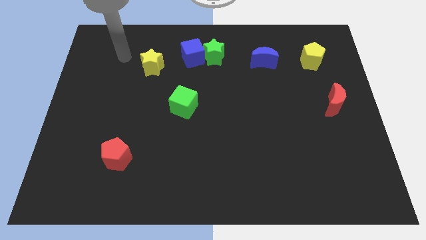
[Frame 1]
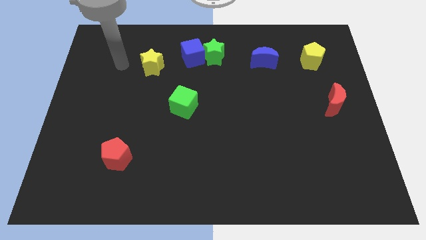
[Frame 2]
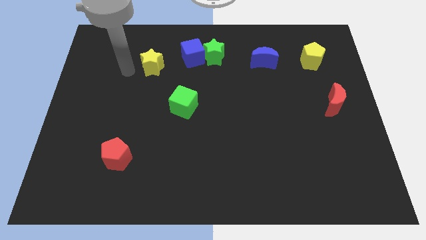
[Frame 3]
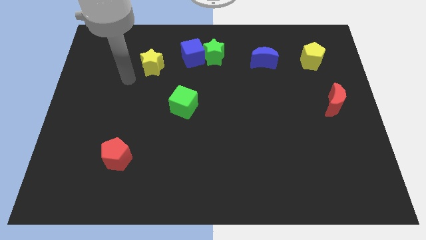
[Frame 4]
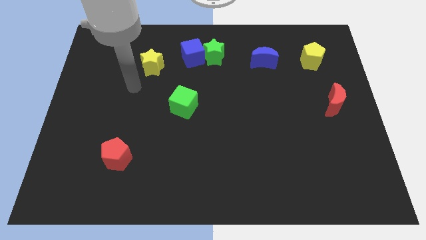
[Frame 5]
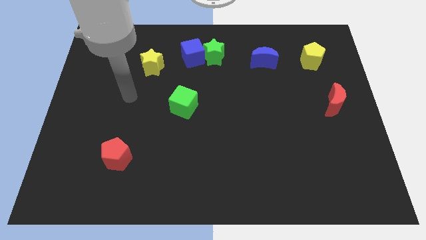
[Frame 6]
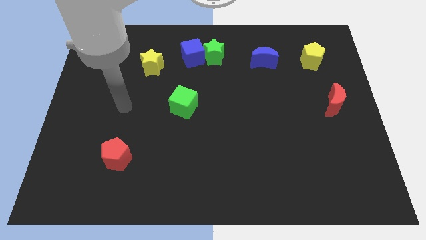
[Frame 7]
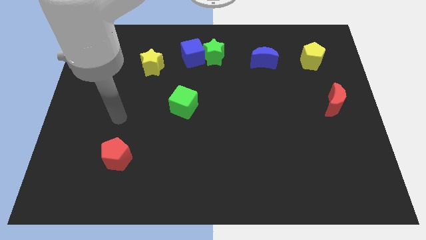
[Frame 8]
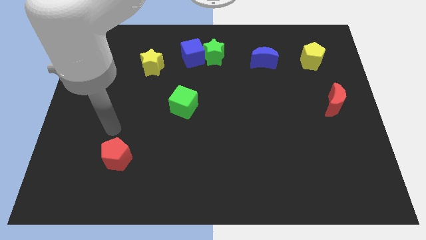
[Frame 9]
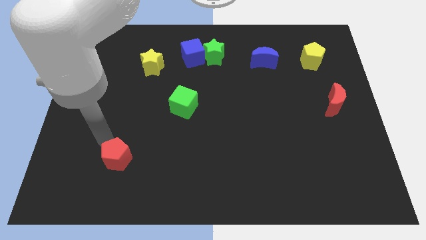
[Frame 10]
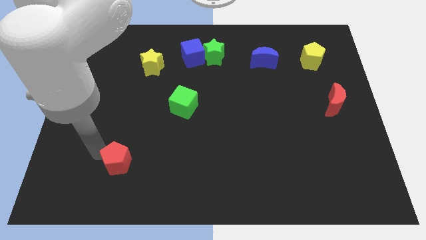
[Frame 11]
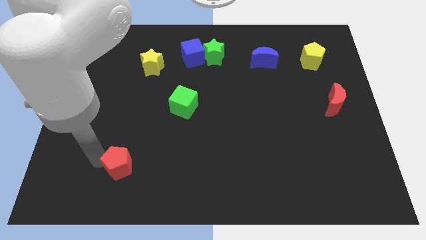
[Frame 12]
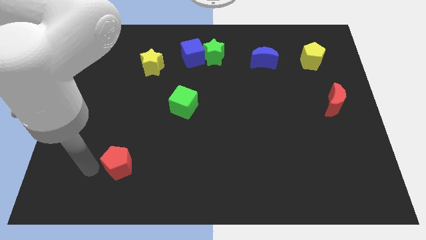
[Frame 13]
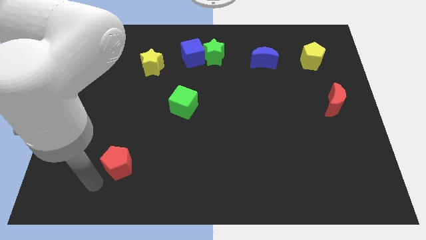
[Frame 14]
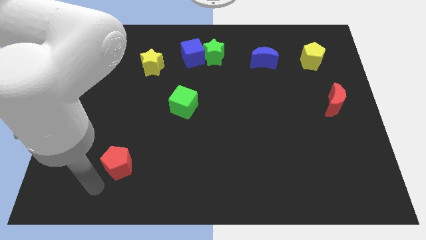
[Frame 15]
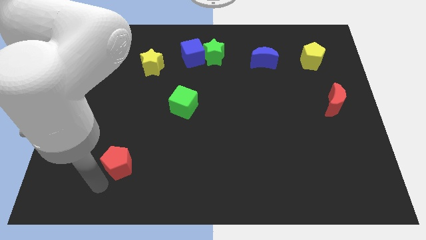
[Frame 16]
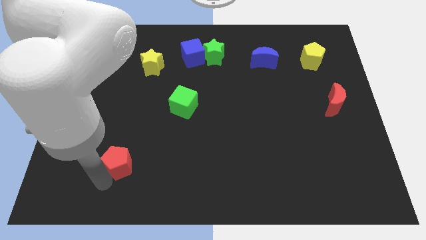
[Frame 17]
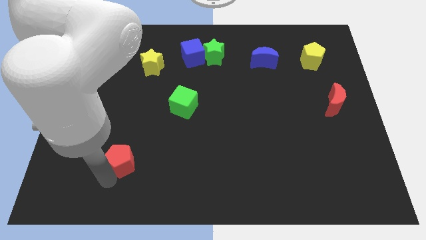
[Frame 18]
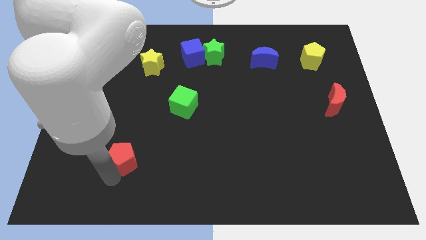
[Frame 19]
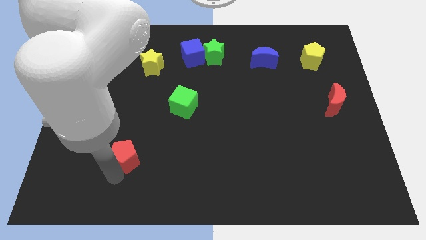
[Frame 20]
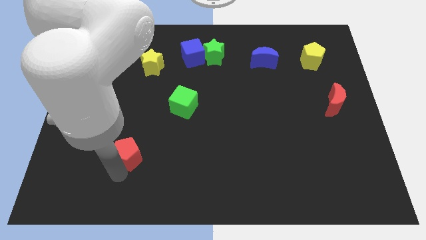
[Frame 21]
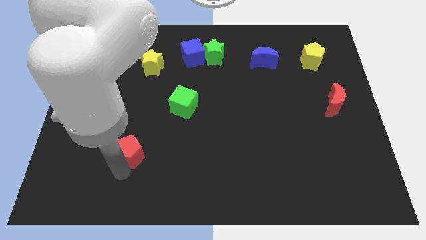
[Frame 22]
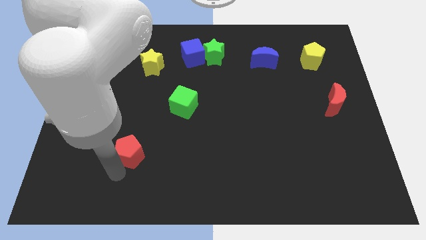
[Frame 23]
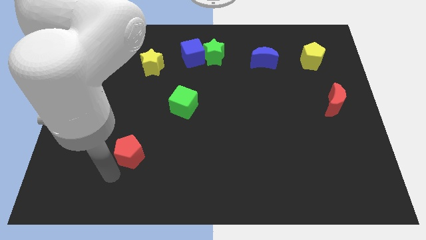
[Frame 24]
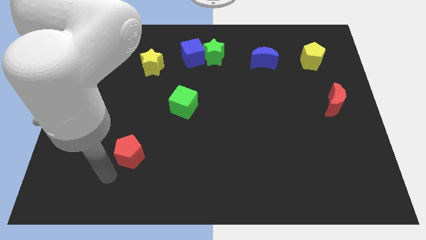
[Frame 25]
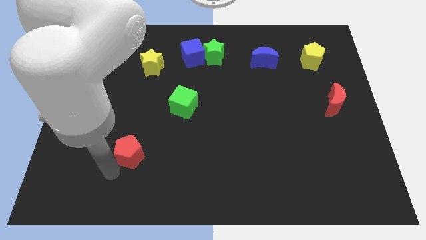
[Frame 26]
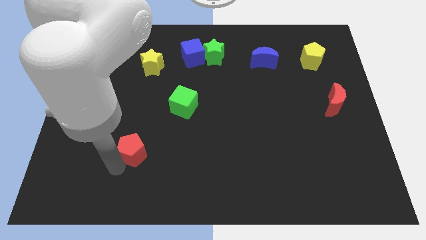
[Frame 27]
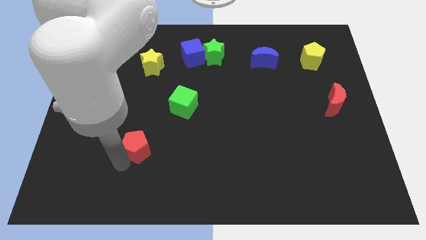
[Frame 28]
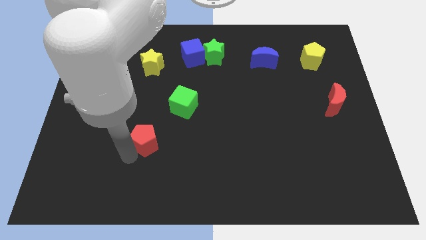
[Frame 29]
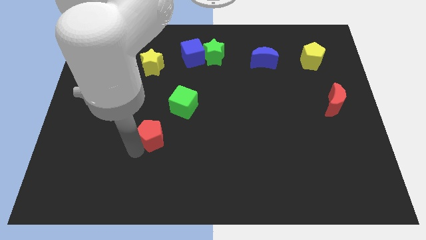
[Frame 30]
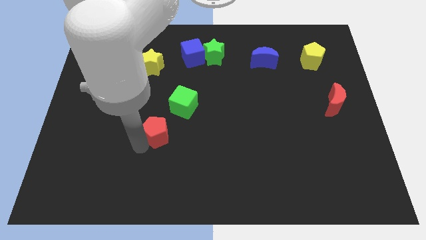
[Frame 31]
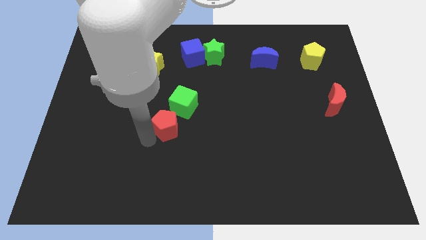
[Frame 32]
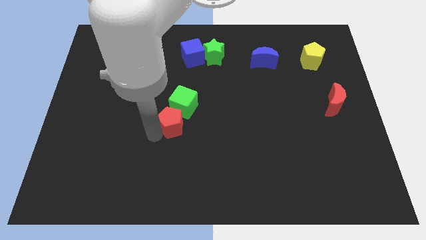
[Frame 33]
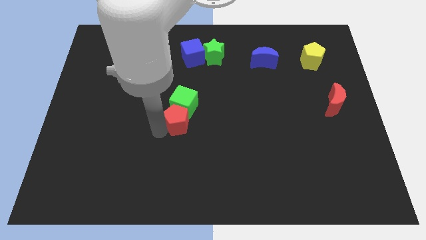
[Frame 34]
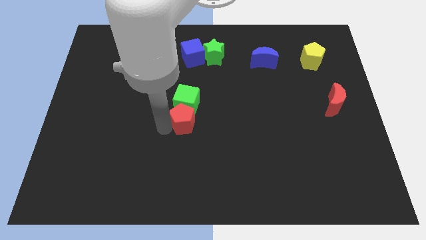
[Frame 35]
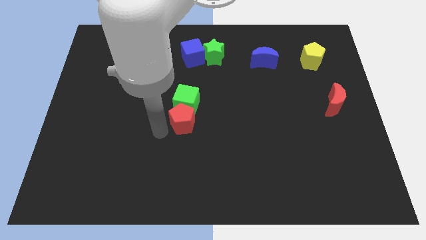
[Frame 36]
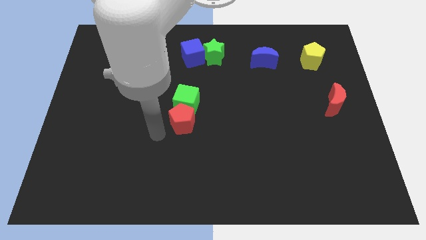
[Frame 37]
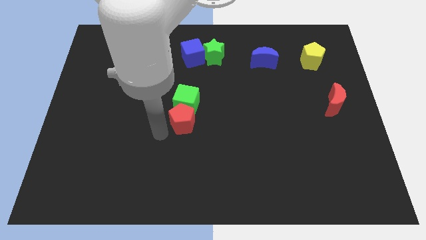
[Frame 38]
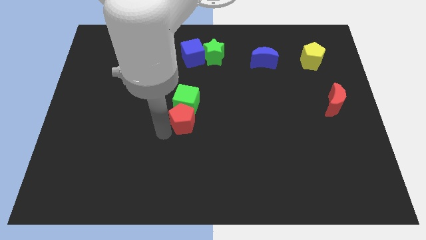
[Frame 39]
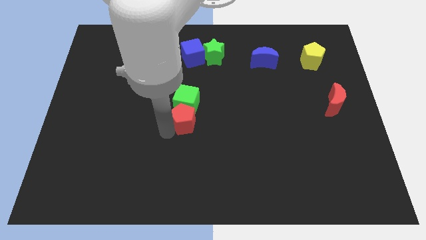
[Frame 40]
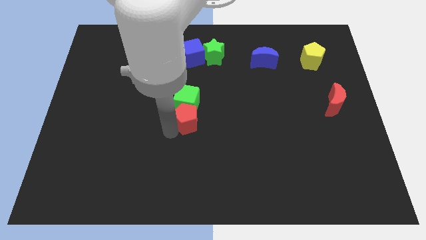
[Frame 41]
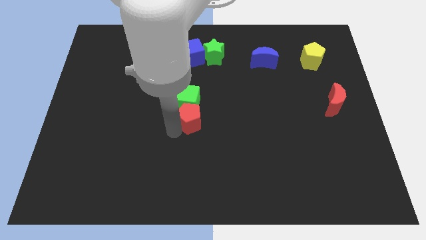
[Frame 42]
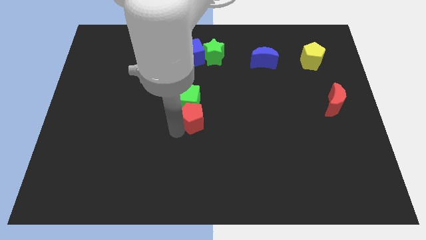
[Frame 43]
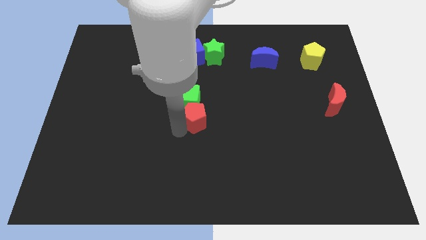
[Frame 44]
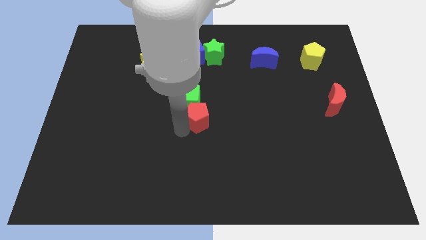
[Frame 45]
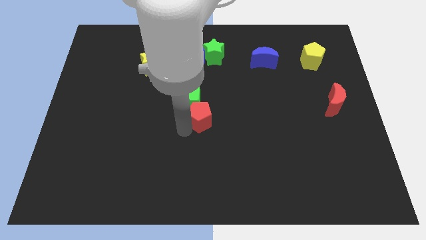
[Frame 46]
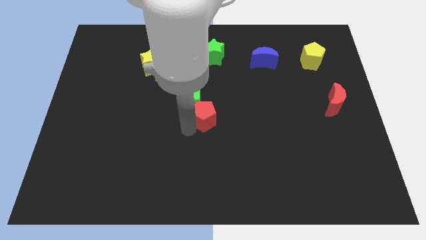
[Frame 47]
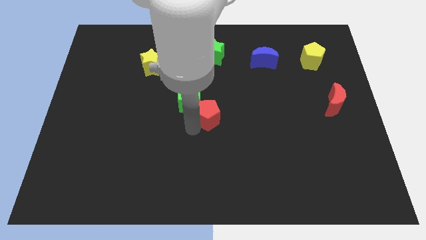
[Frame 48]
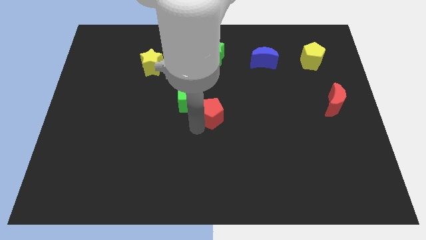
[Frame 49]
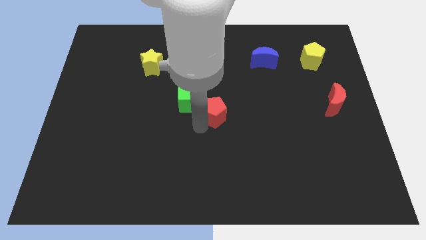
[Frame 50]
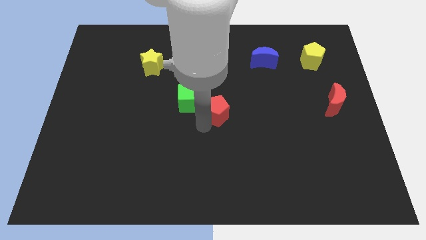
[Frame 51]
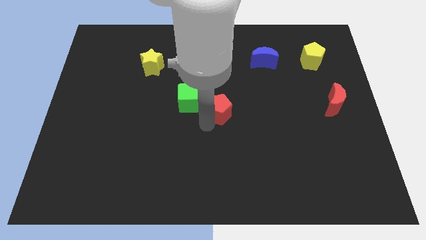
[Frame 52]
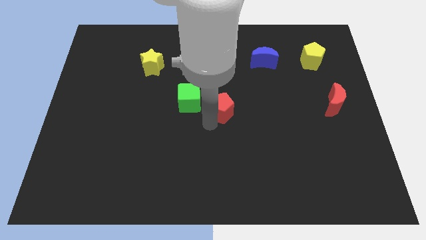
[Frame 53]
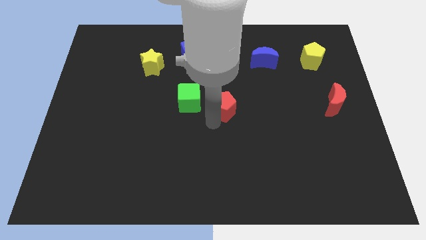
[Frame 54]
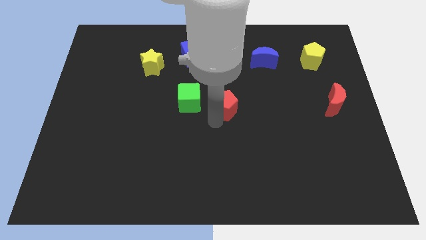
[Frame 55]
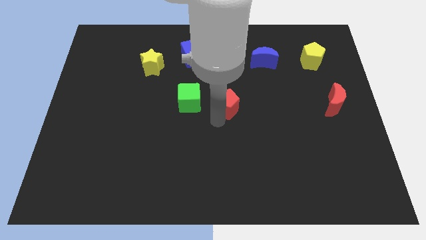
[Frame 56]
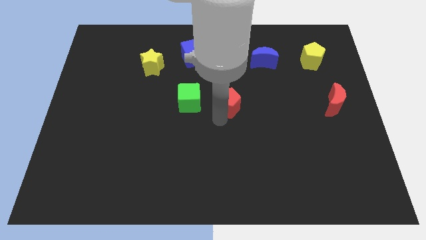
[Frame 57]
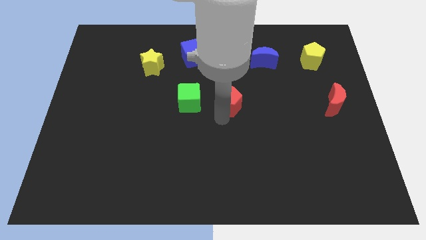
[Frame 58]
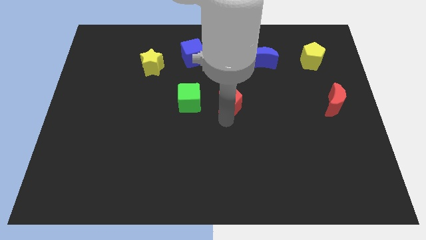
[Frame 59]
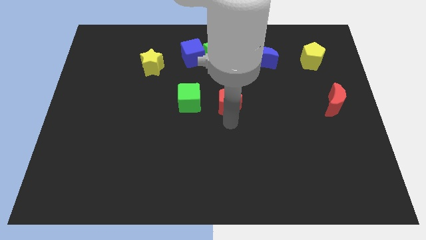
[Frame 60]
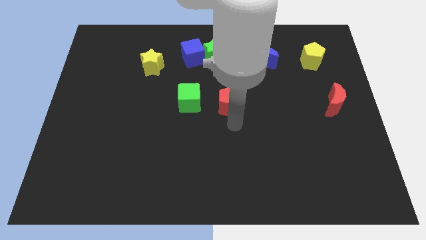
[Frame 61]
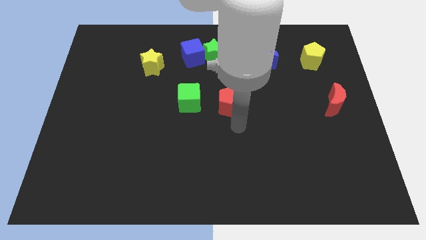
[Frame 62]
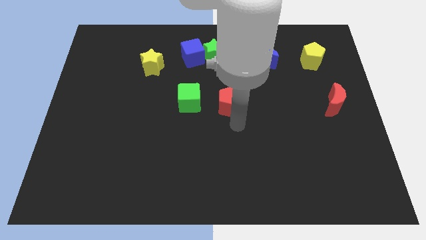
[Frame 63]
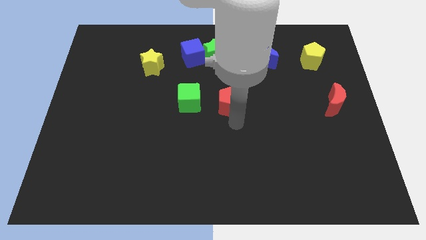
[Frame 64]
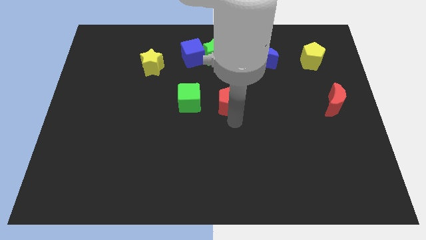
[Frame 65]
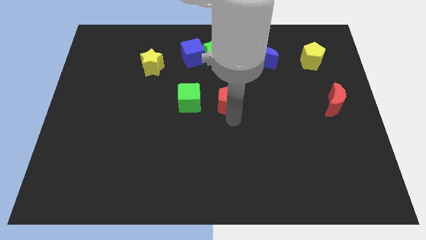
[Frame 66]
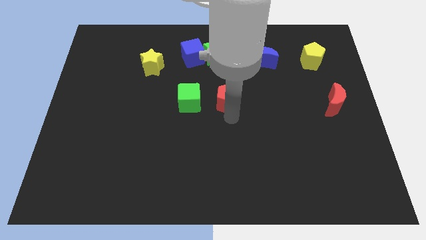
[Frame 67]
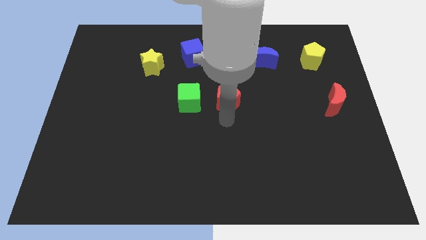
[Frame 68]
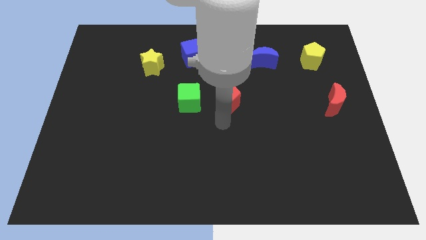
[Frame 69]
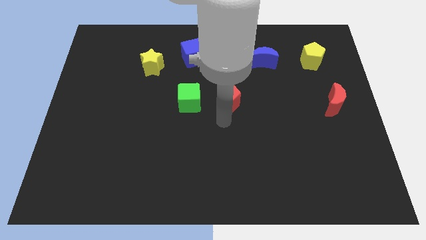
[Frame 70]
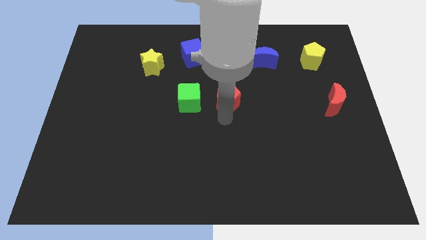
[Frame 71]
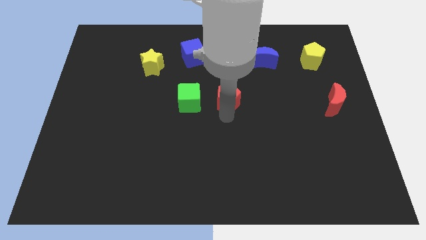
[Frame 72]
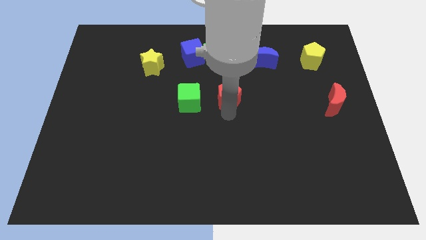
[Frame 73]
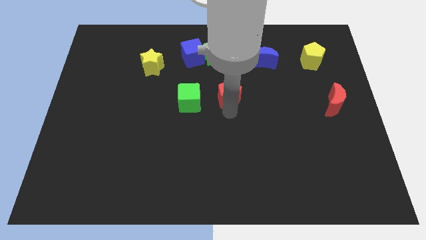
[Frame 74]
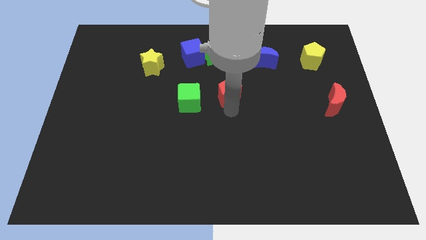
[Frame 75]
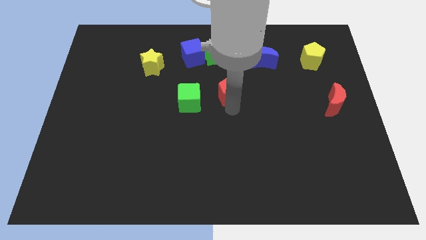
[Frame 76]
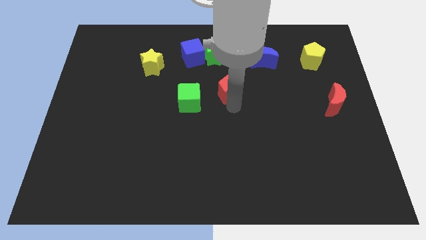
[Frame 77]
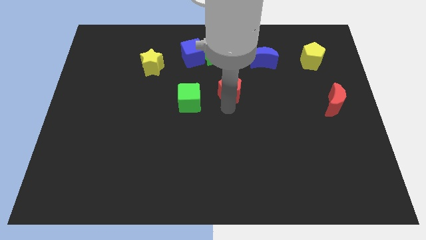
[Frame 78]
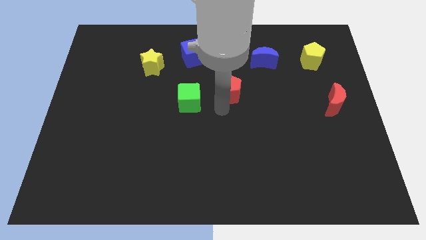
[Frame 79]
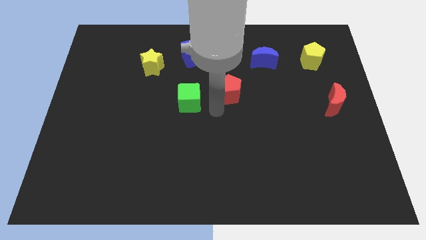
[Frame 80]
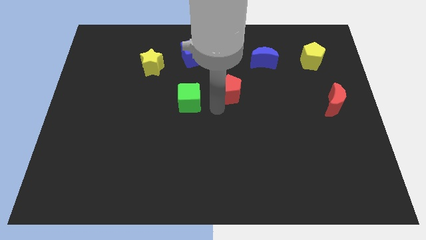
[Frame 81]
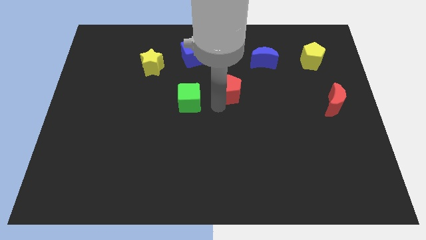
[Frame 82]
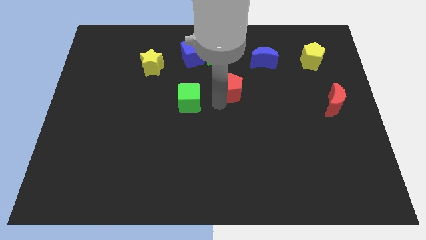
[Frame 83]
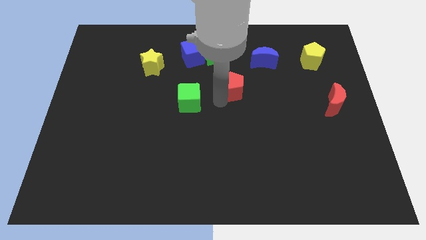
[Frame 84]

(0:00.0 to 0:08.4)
move the red pentagon diagonally down and to the left of the blue moon
